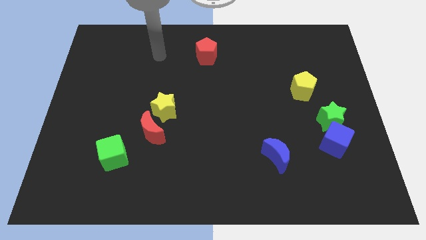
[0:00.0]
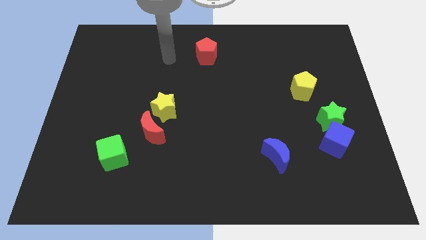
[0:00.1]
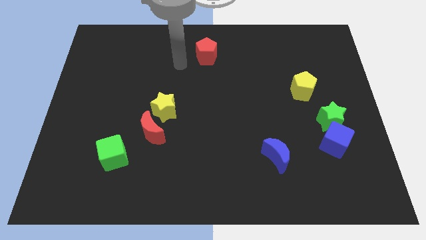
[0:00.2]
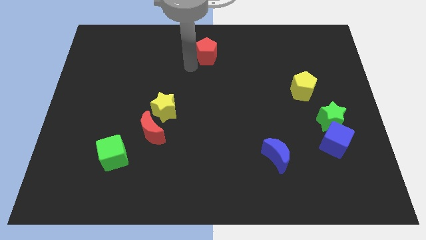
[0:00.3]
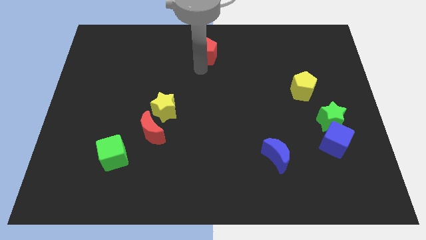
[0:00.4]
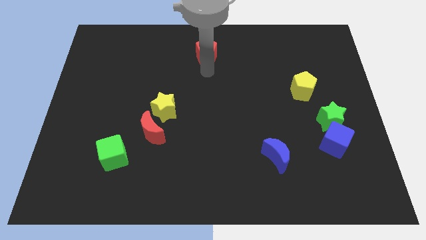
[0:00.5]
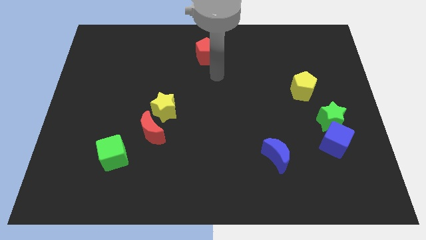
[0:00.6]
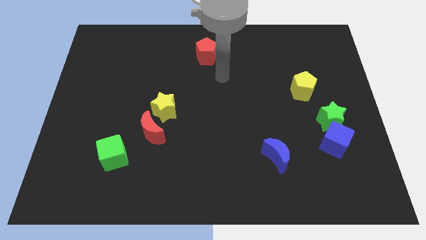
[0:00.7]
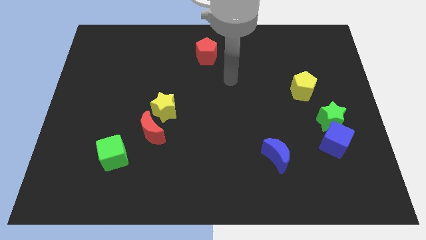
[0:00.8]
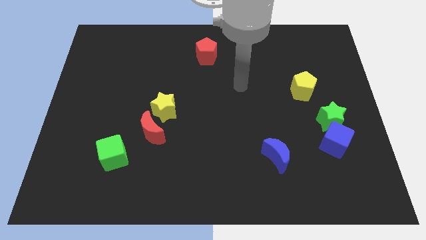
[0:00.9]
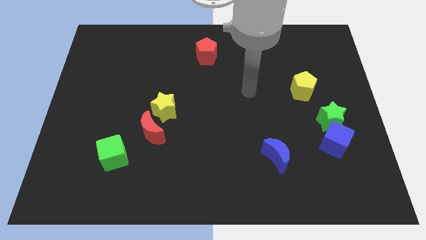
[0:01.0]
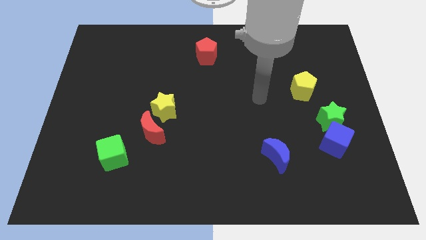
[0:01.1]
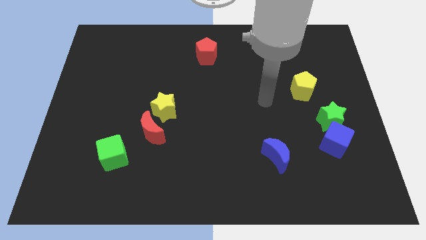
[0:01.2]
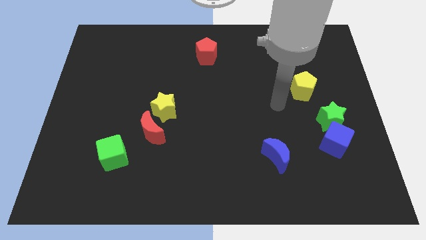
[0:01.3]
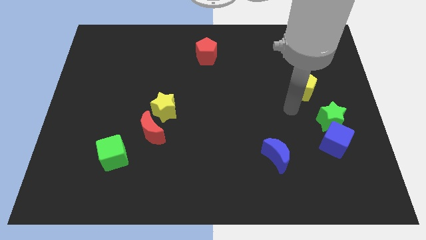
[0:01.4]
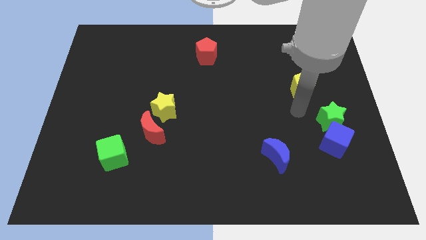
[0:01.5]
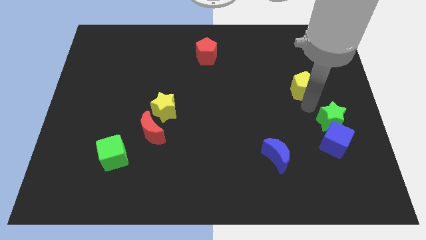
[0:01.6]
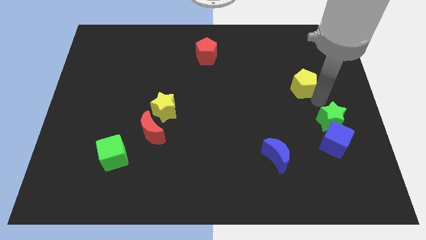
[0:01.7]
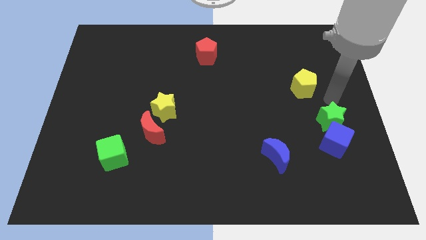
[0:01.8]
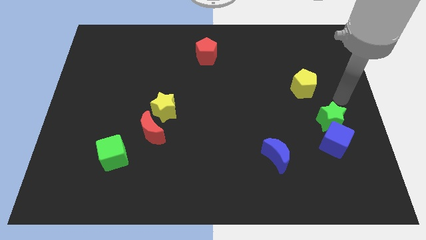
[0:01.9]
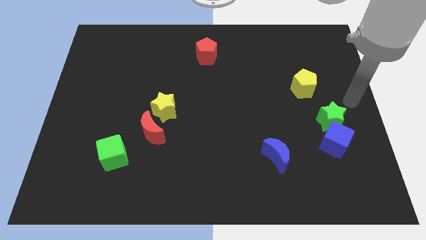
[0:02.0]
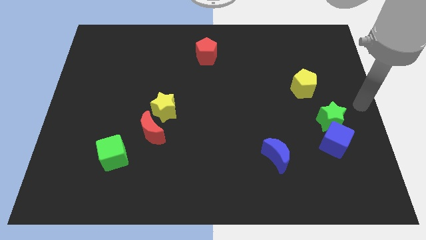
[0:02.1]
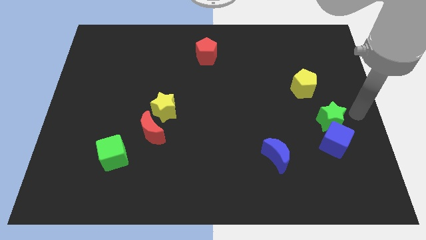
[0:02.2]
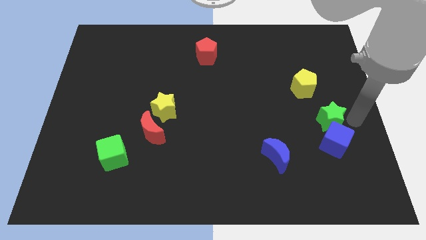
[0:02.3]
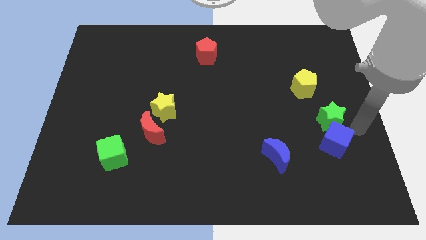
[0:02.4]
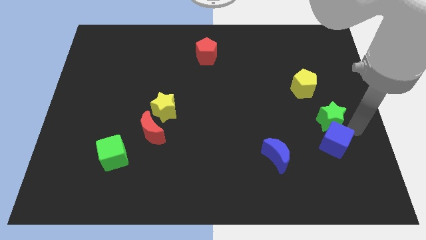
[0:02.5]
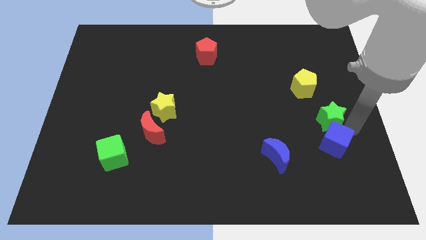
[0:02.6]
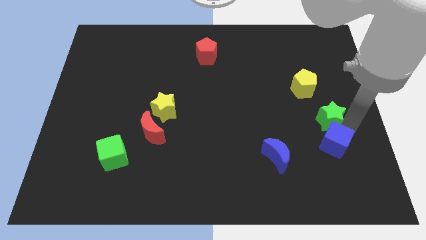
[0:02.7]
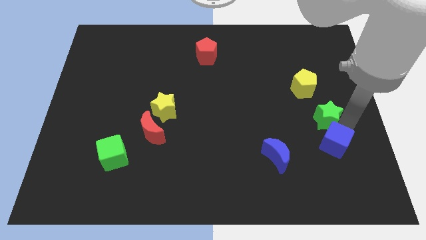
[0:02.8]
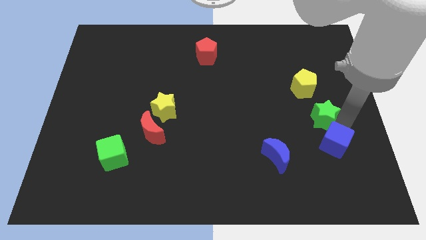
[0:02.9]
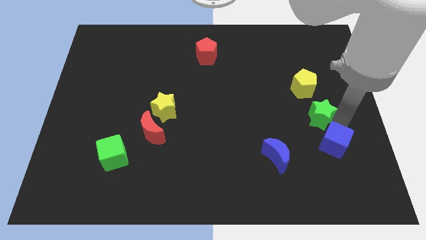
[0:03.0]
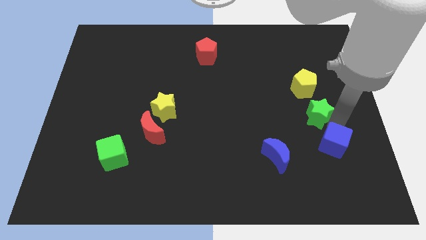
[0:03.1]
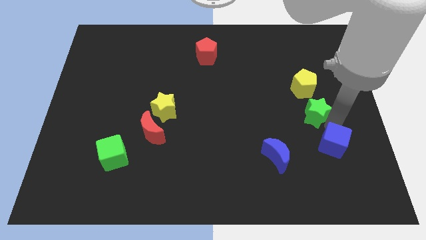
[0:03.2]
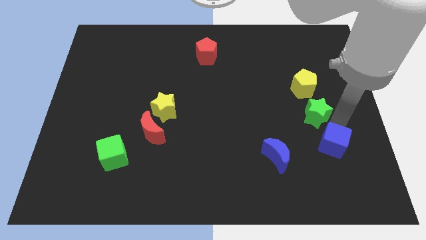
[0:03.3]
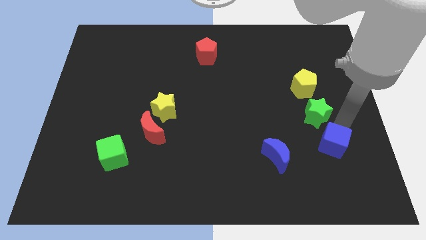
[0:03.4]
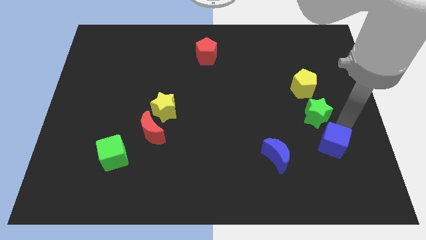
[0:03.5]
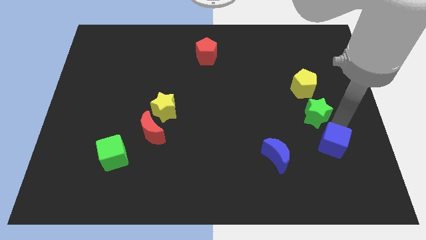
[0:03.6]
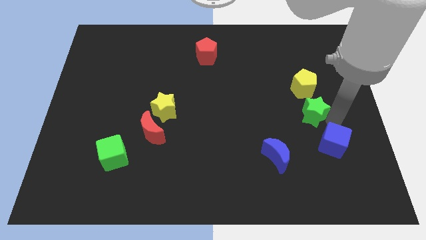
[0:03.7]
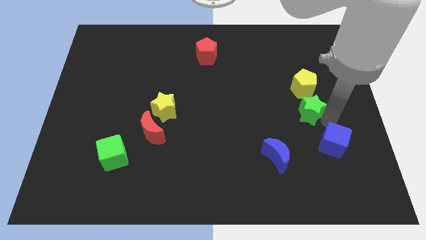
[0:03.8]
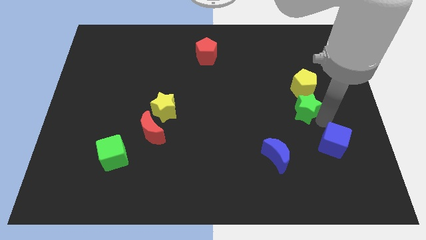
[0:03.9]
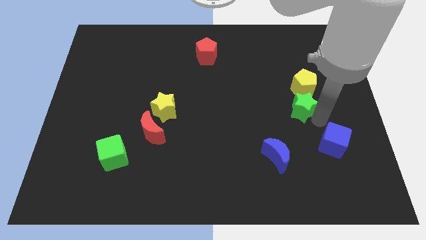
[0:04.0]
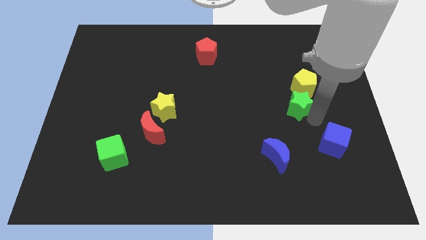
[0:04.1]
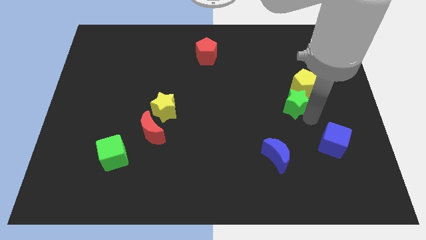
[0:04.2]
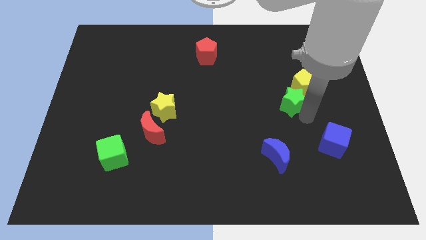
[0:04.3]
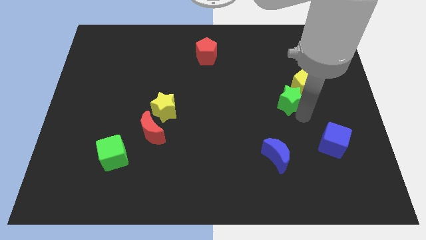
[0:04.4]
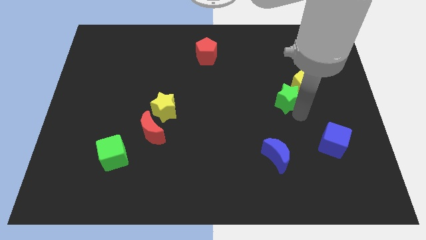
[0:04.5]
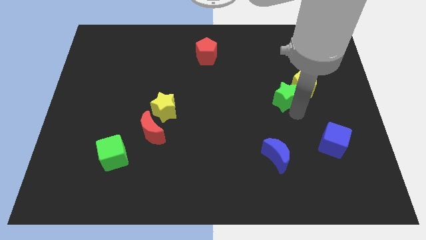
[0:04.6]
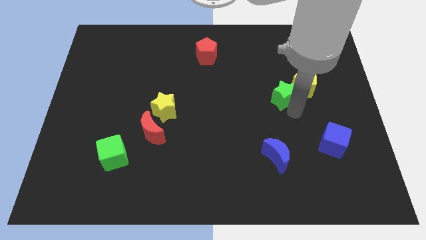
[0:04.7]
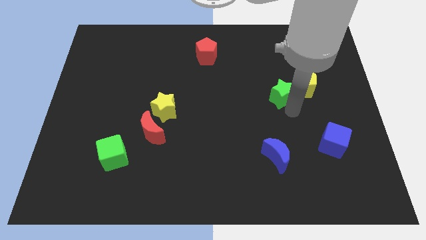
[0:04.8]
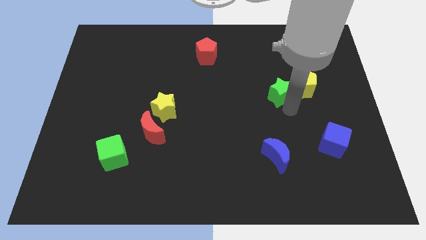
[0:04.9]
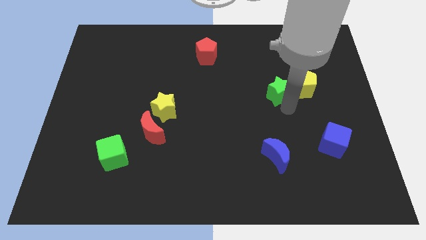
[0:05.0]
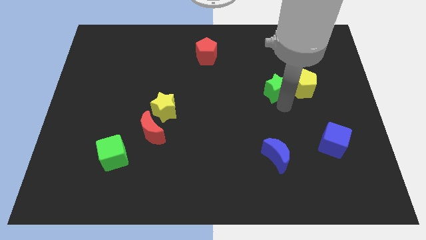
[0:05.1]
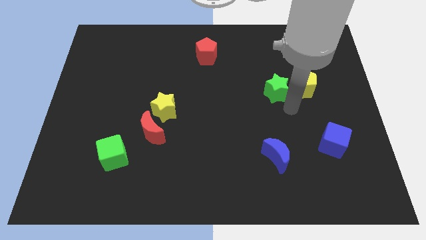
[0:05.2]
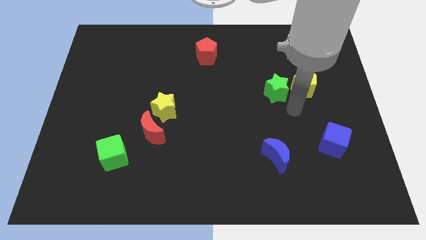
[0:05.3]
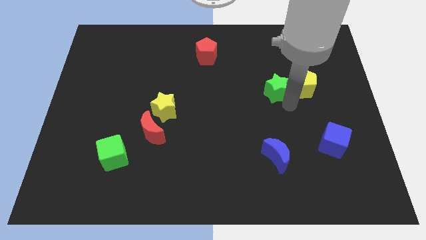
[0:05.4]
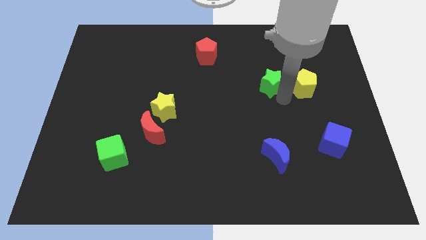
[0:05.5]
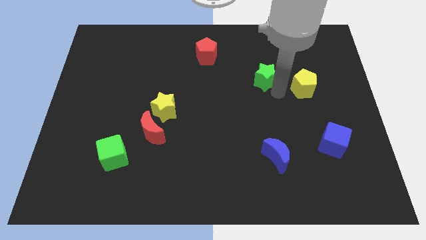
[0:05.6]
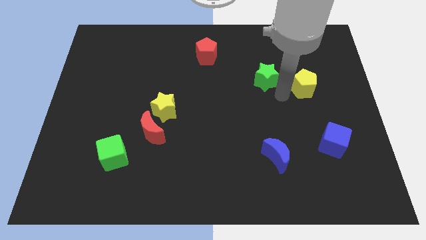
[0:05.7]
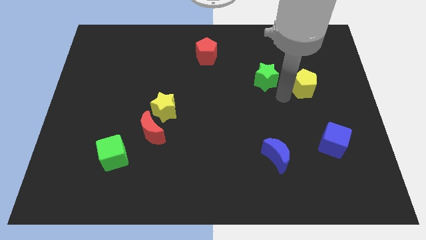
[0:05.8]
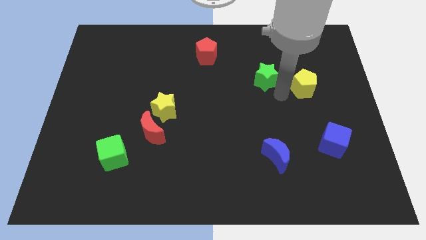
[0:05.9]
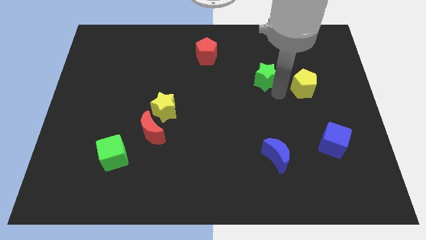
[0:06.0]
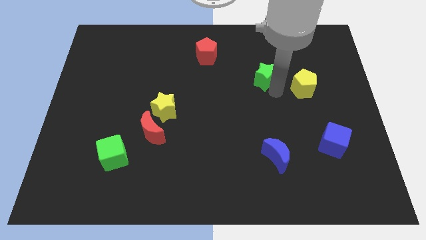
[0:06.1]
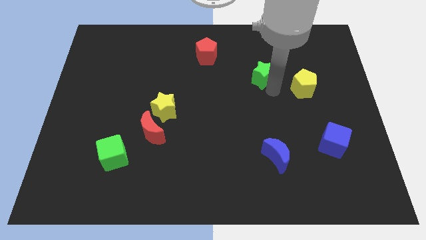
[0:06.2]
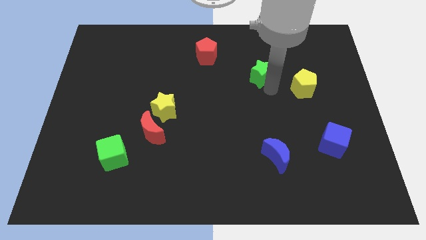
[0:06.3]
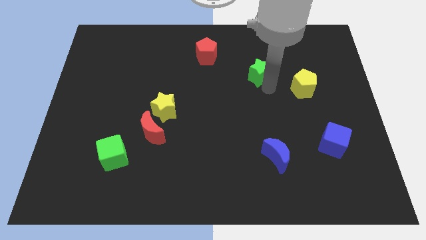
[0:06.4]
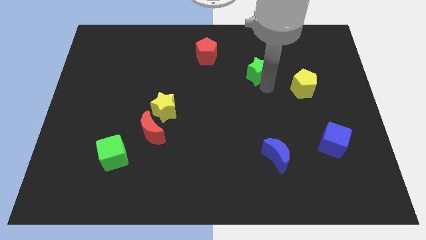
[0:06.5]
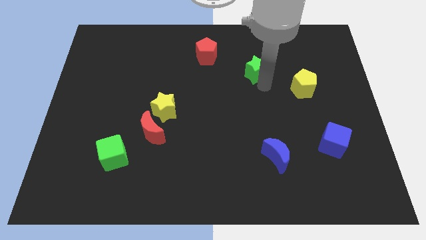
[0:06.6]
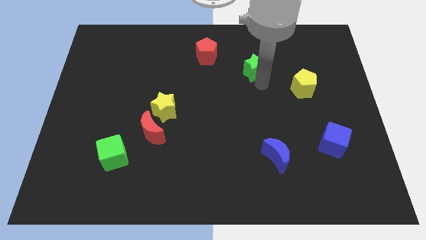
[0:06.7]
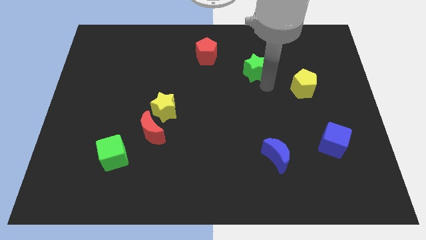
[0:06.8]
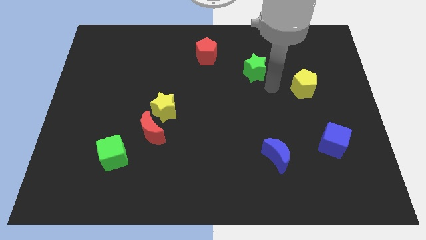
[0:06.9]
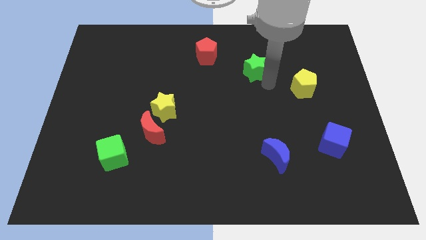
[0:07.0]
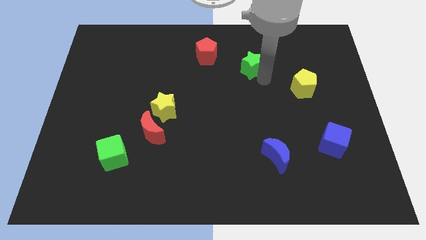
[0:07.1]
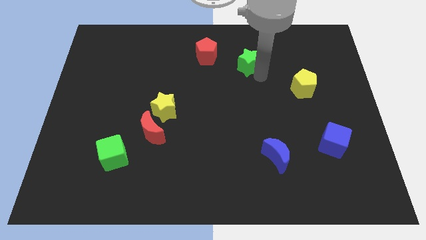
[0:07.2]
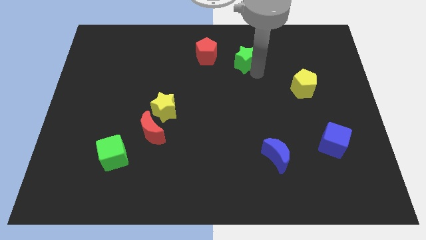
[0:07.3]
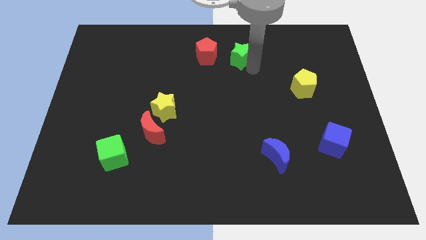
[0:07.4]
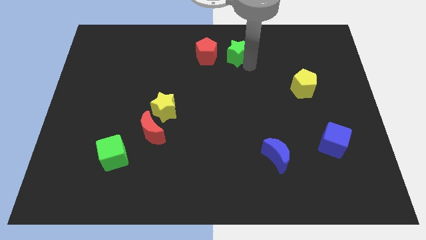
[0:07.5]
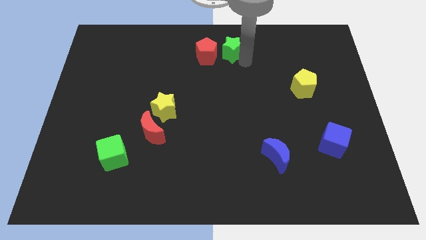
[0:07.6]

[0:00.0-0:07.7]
push the green star to the top side
